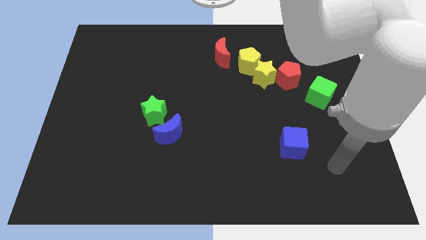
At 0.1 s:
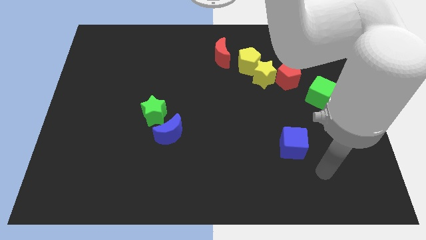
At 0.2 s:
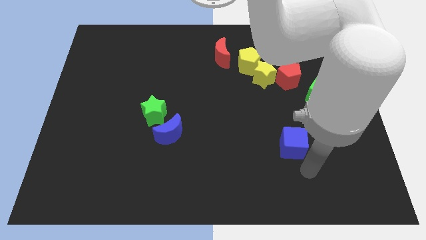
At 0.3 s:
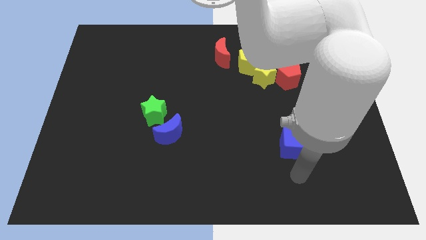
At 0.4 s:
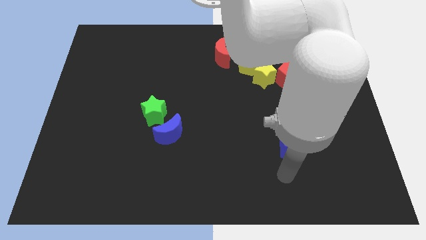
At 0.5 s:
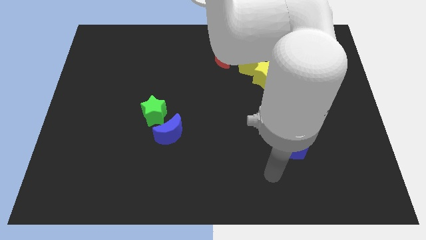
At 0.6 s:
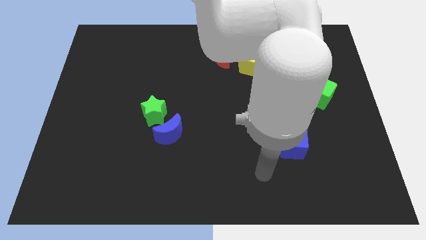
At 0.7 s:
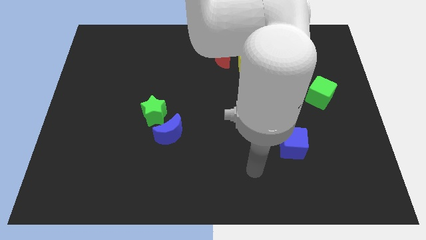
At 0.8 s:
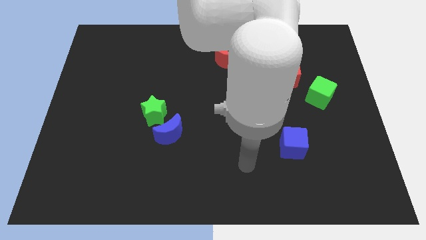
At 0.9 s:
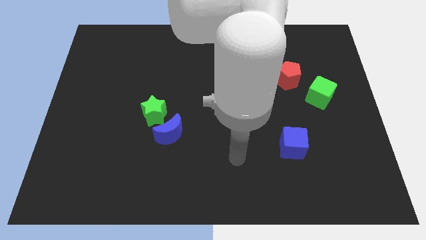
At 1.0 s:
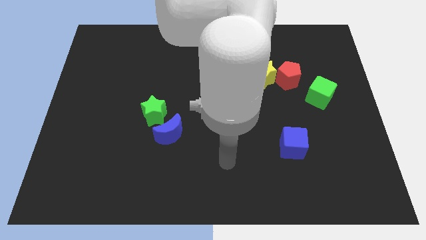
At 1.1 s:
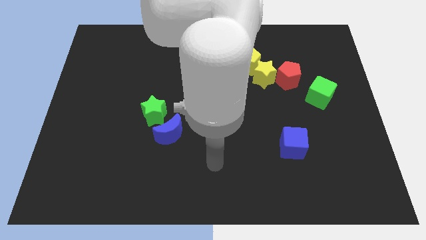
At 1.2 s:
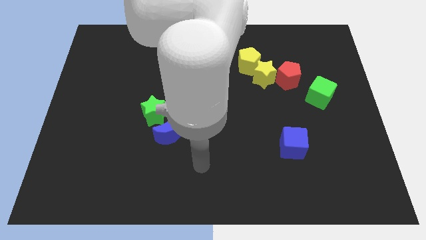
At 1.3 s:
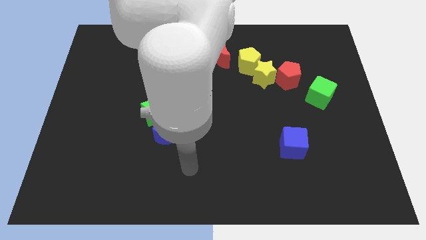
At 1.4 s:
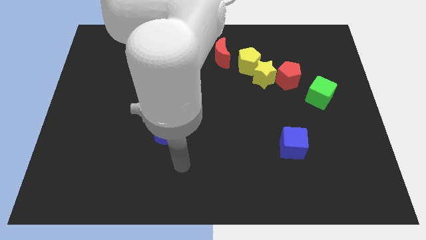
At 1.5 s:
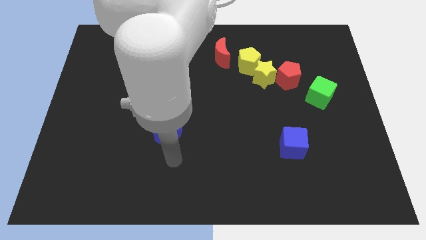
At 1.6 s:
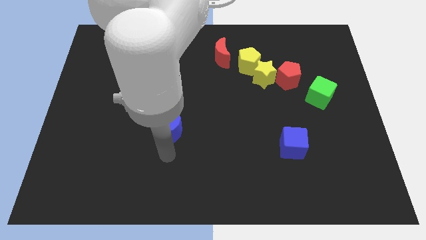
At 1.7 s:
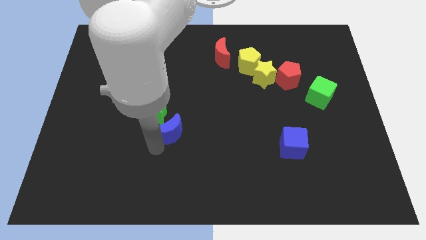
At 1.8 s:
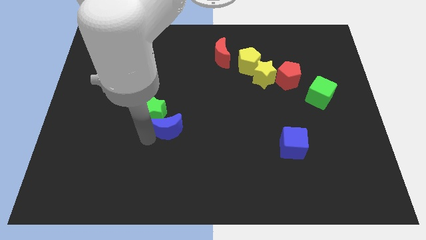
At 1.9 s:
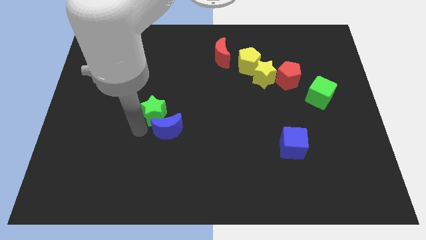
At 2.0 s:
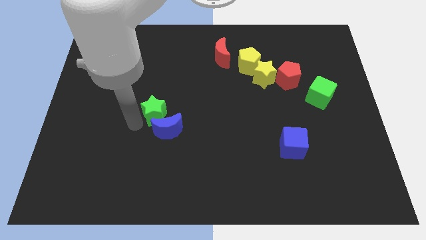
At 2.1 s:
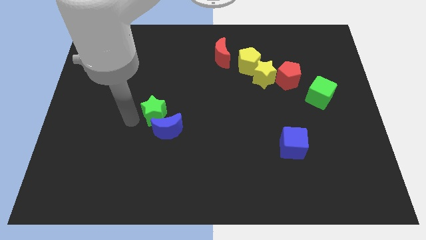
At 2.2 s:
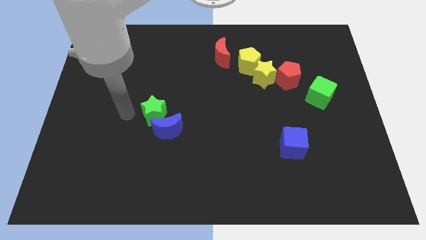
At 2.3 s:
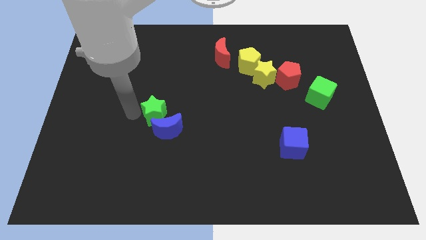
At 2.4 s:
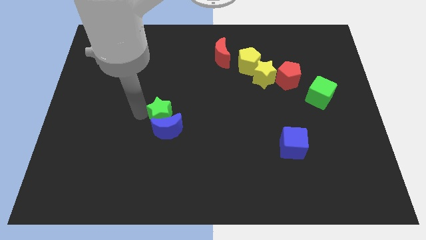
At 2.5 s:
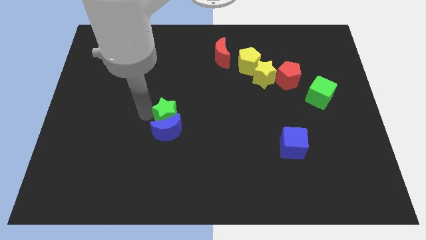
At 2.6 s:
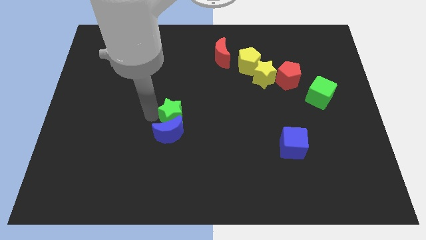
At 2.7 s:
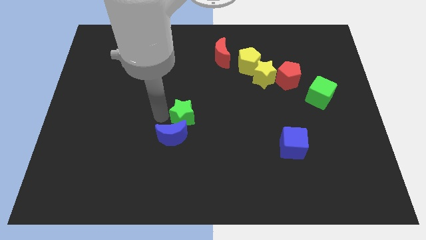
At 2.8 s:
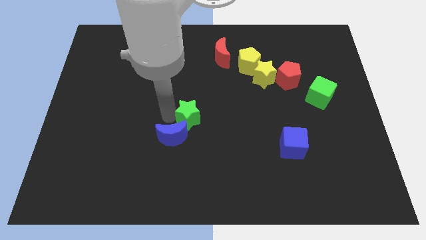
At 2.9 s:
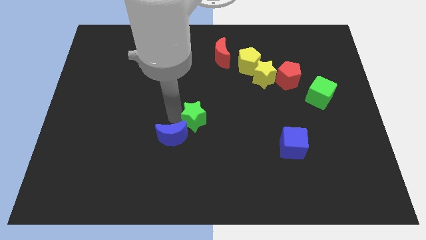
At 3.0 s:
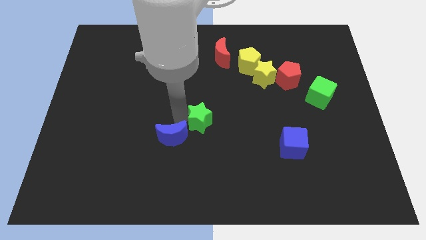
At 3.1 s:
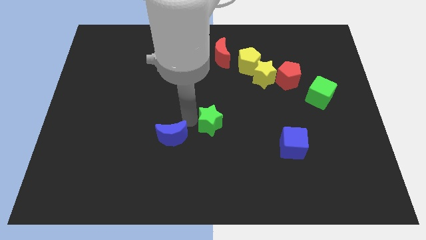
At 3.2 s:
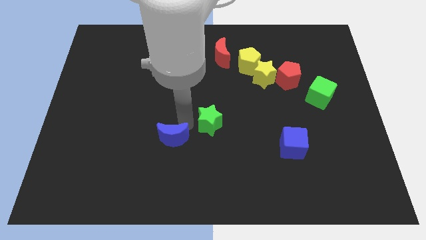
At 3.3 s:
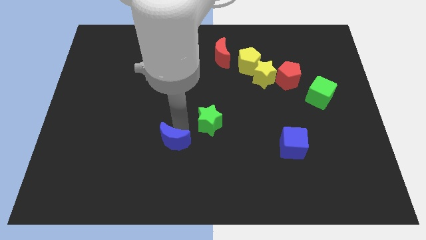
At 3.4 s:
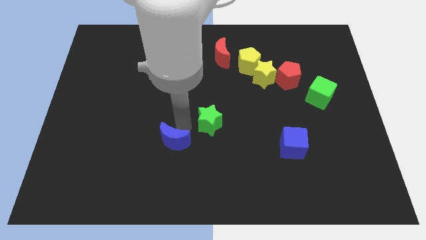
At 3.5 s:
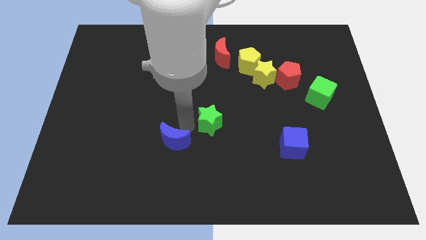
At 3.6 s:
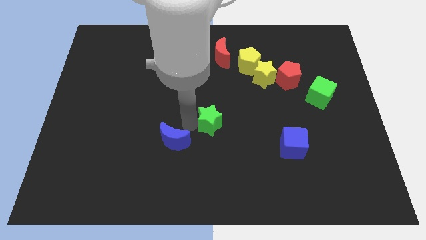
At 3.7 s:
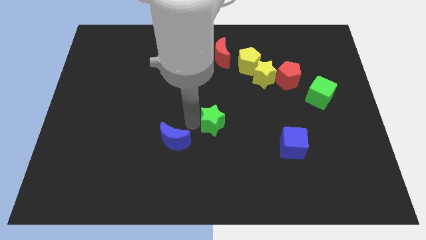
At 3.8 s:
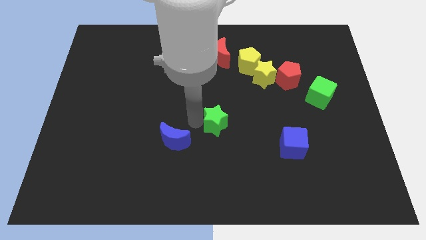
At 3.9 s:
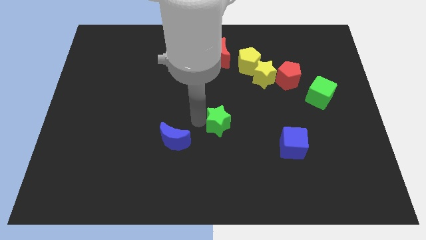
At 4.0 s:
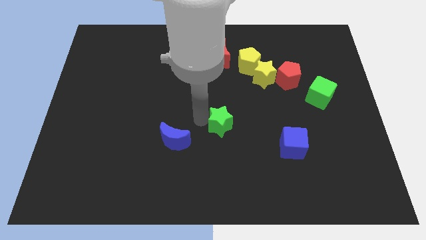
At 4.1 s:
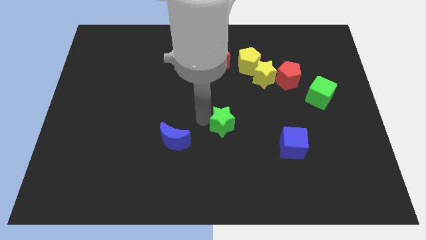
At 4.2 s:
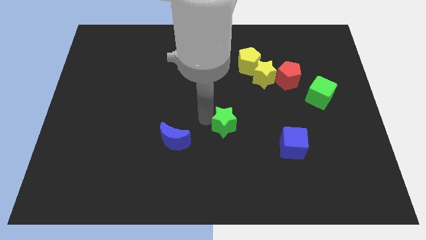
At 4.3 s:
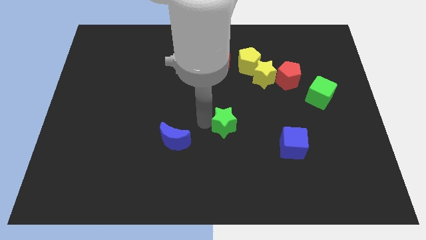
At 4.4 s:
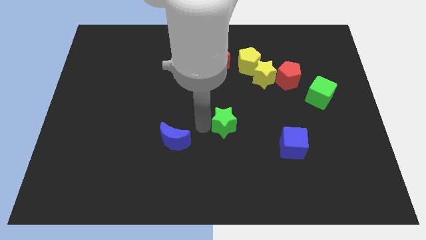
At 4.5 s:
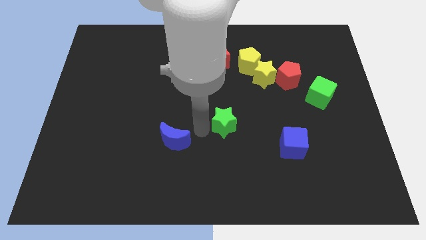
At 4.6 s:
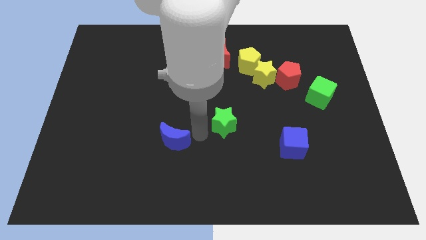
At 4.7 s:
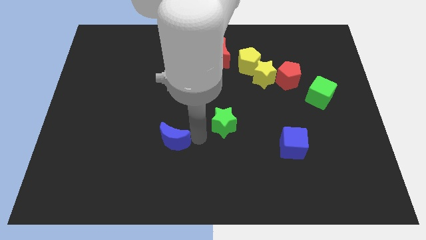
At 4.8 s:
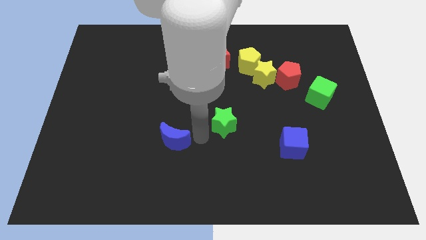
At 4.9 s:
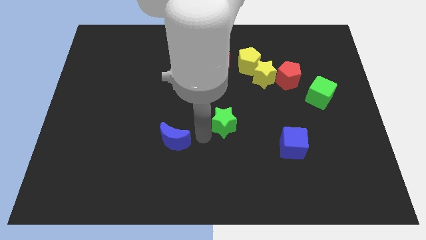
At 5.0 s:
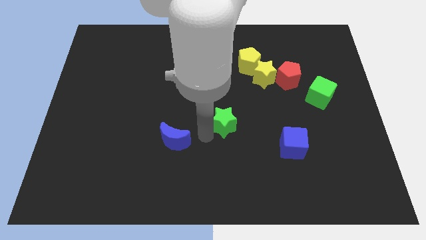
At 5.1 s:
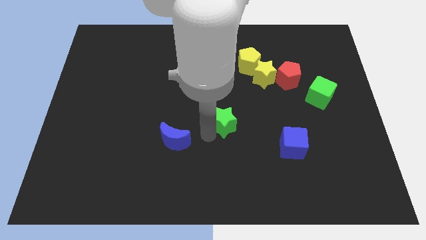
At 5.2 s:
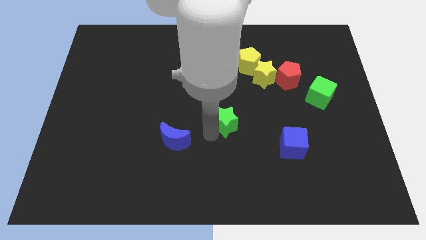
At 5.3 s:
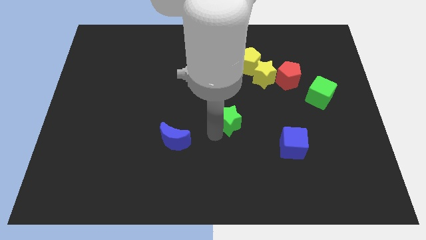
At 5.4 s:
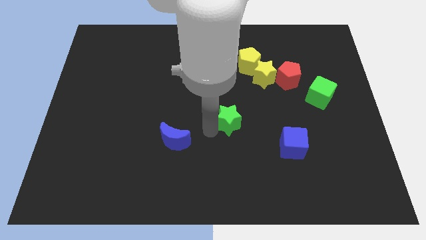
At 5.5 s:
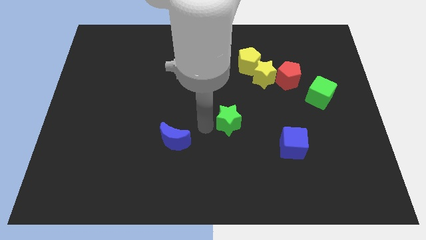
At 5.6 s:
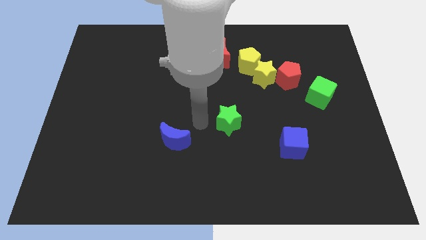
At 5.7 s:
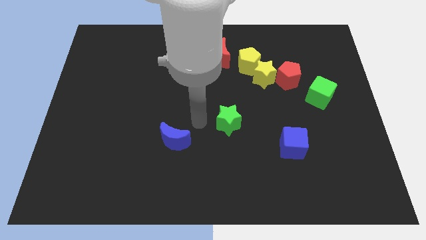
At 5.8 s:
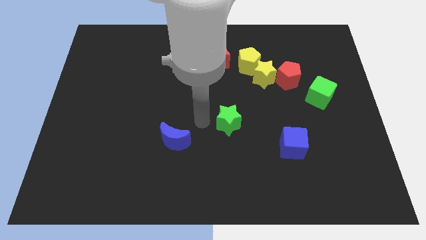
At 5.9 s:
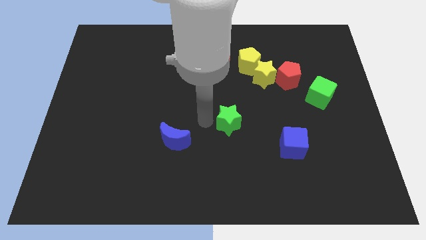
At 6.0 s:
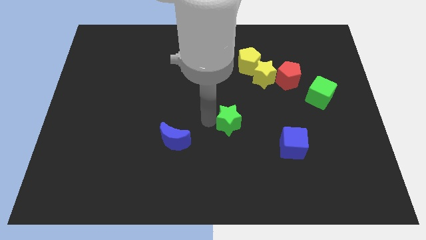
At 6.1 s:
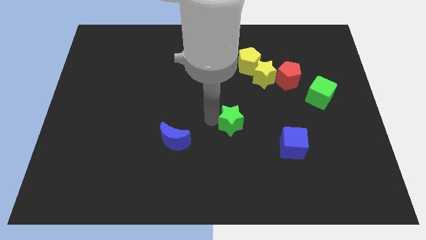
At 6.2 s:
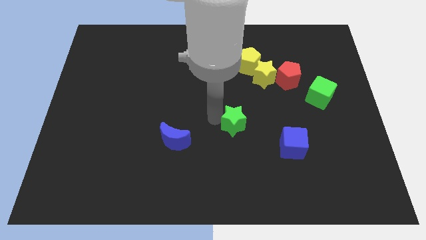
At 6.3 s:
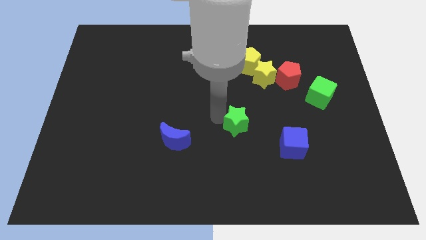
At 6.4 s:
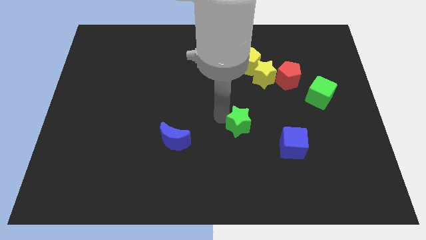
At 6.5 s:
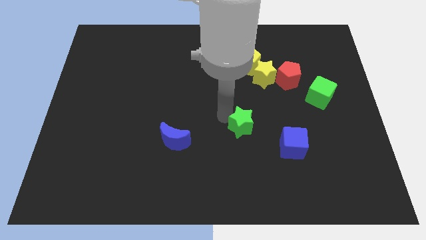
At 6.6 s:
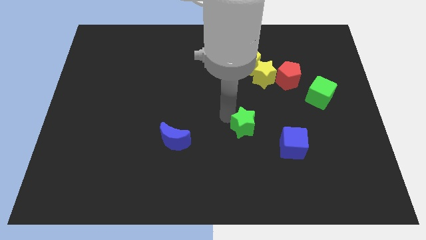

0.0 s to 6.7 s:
move the green star right

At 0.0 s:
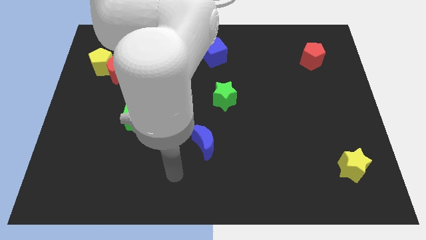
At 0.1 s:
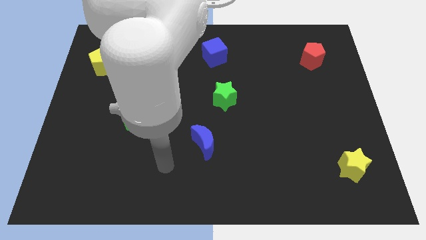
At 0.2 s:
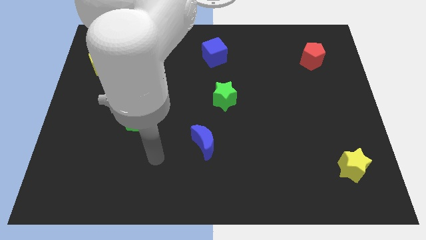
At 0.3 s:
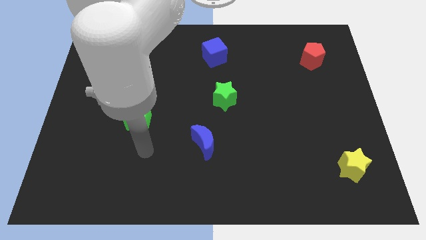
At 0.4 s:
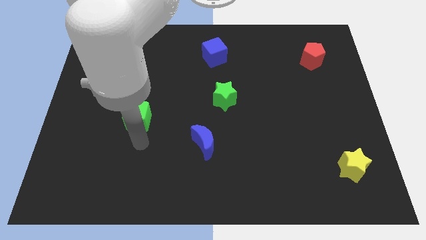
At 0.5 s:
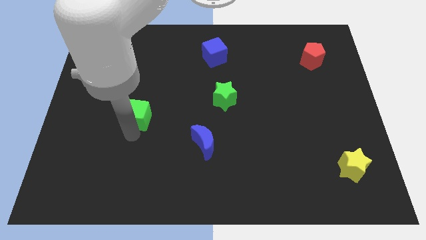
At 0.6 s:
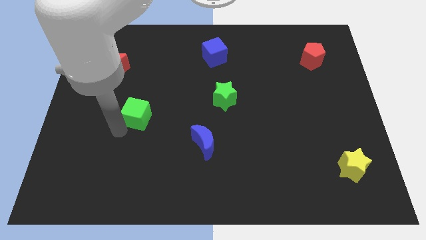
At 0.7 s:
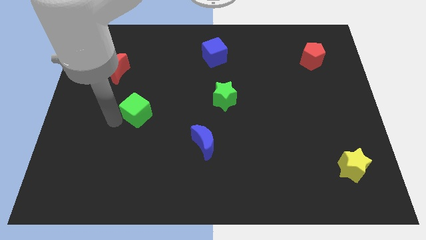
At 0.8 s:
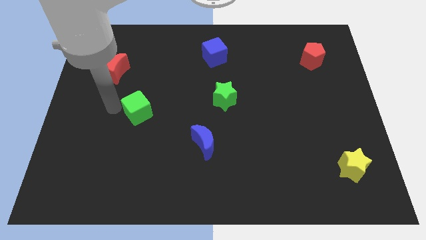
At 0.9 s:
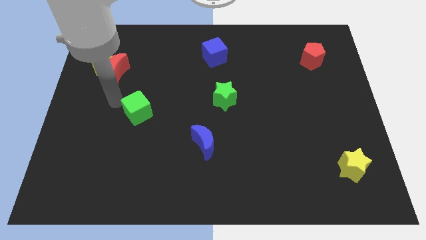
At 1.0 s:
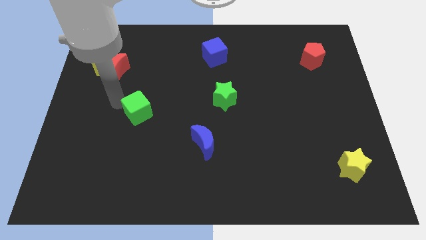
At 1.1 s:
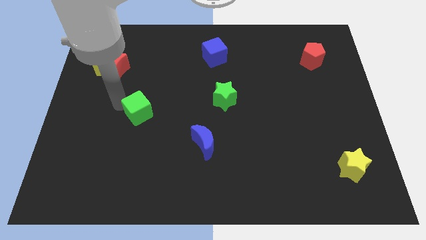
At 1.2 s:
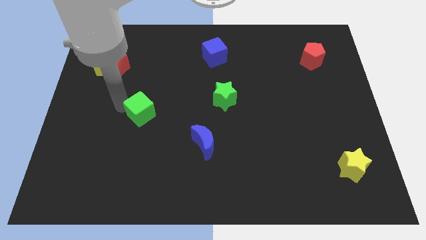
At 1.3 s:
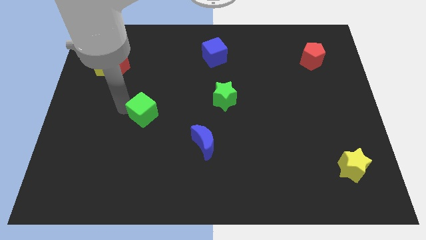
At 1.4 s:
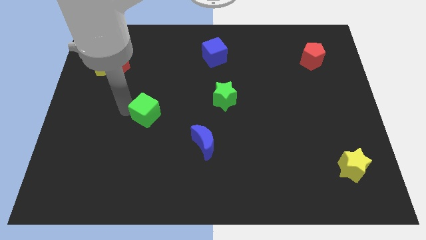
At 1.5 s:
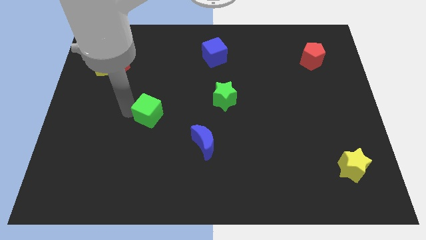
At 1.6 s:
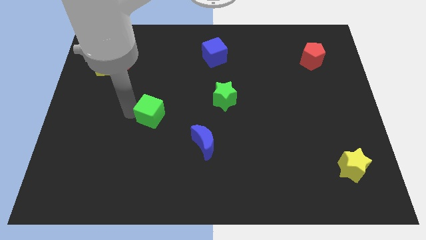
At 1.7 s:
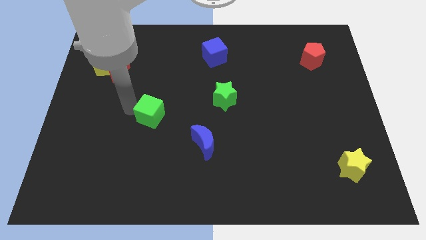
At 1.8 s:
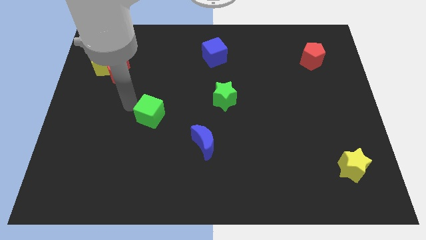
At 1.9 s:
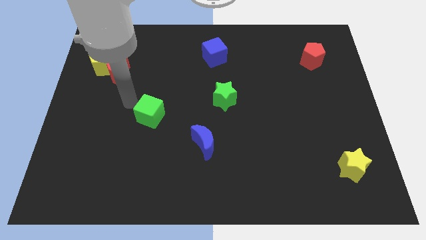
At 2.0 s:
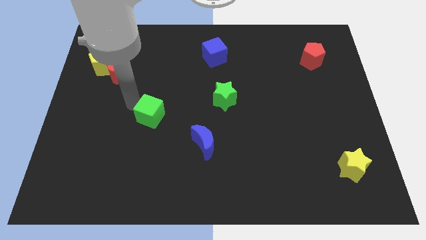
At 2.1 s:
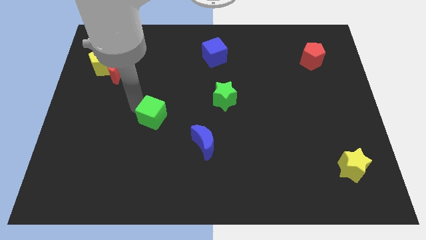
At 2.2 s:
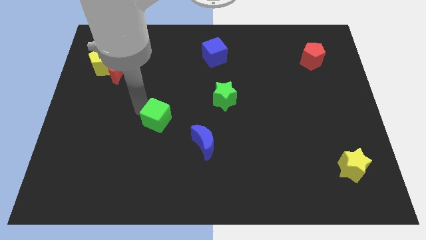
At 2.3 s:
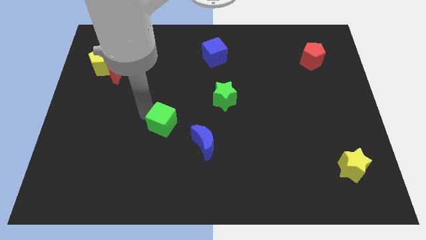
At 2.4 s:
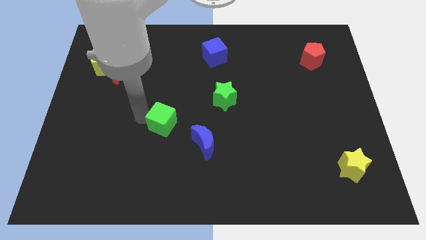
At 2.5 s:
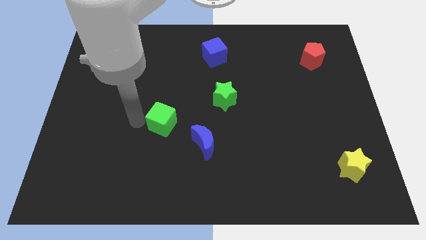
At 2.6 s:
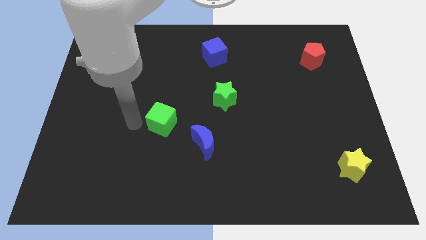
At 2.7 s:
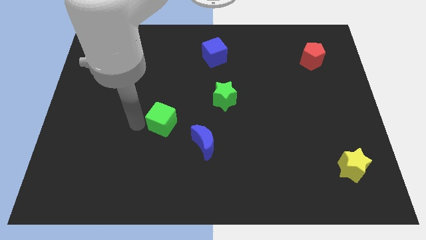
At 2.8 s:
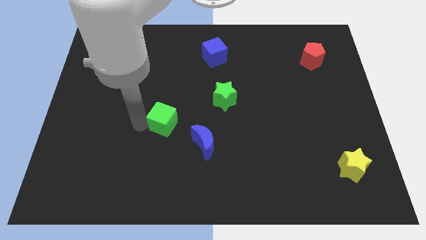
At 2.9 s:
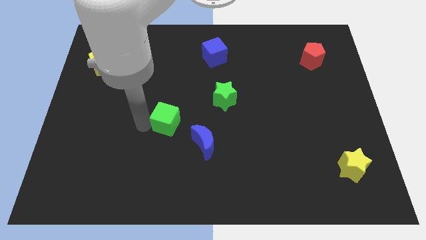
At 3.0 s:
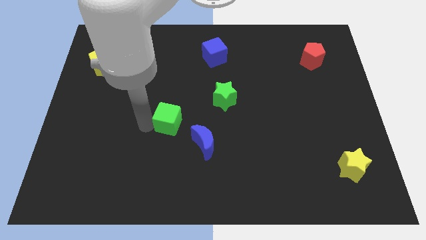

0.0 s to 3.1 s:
move the green cube a little bit to the right
